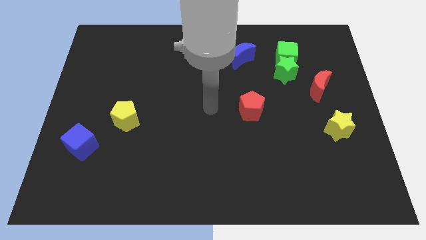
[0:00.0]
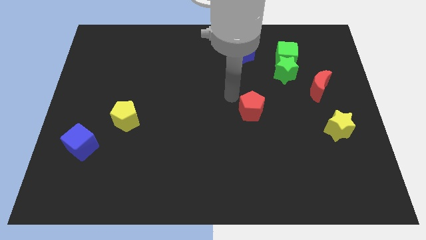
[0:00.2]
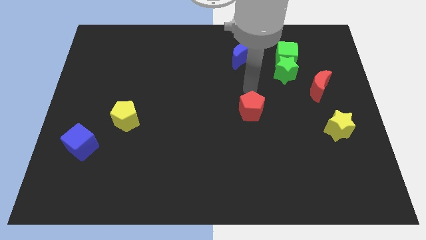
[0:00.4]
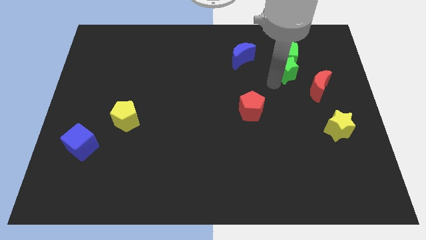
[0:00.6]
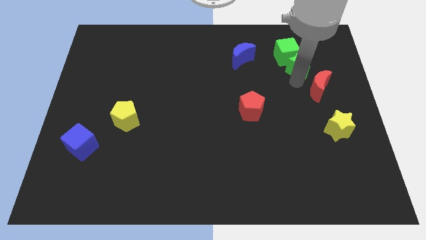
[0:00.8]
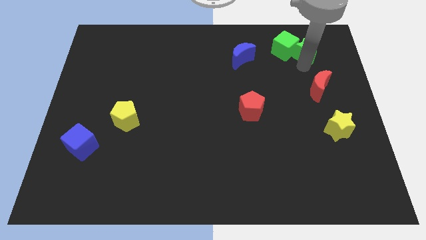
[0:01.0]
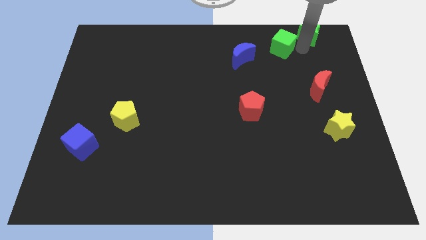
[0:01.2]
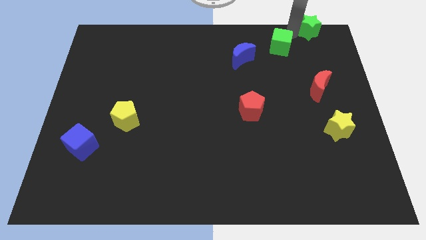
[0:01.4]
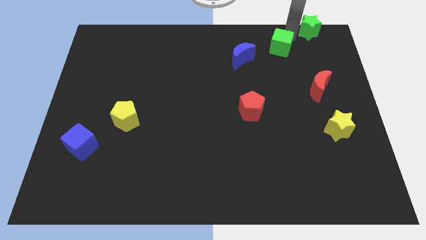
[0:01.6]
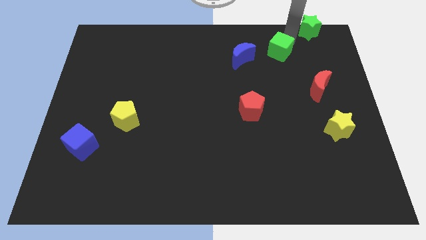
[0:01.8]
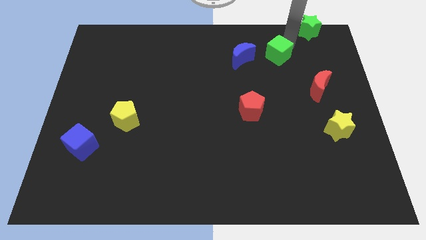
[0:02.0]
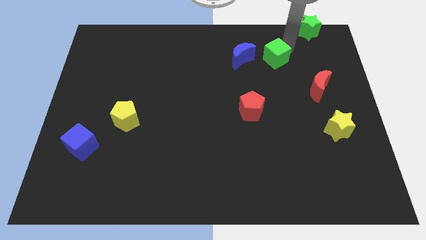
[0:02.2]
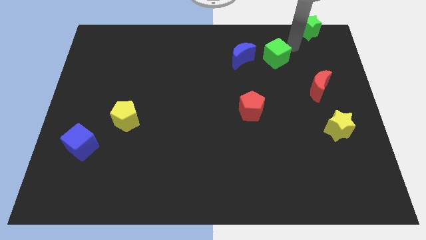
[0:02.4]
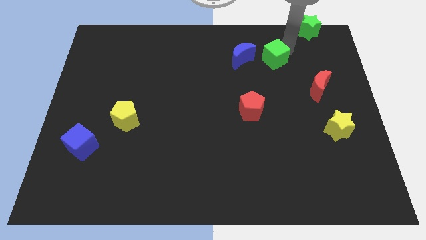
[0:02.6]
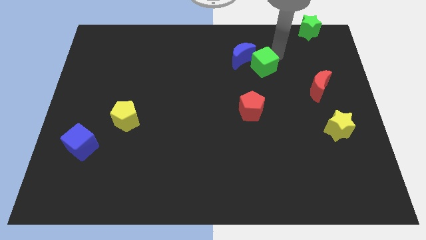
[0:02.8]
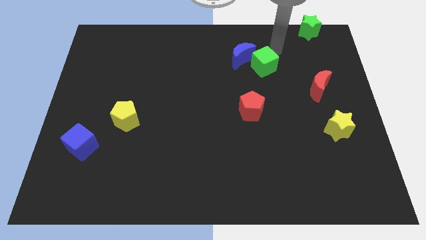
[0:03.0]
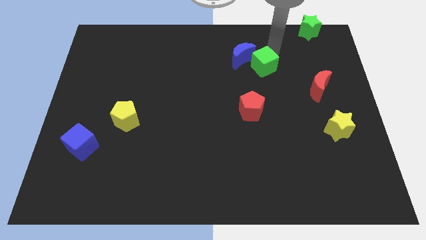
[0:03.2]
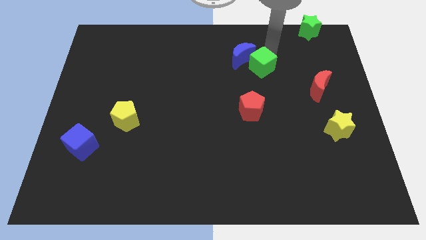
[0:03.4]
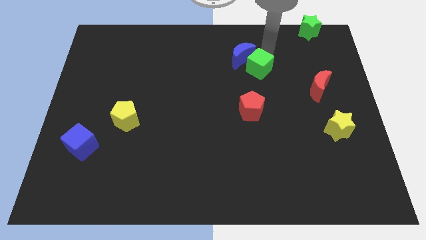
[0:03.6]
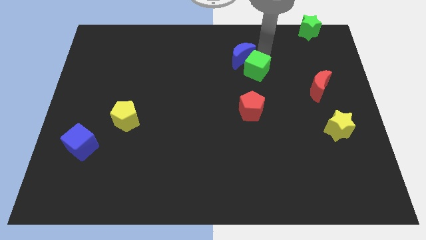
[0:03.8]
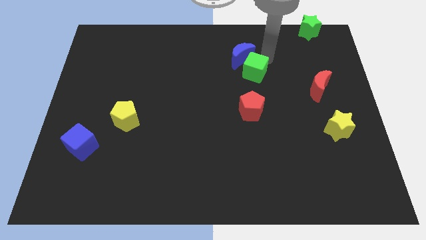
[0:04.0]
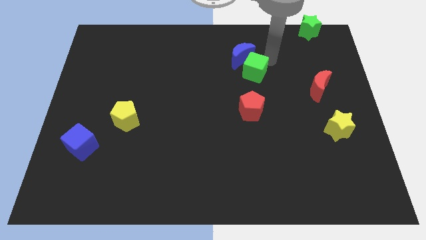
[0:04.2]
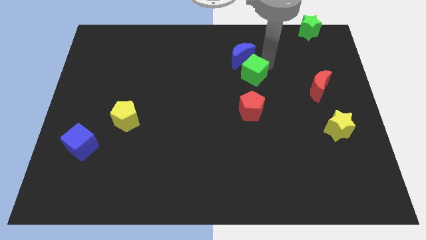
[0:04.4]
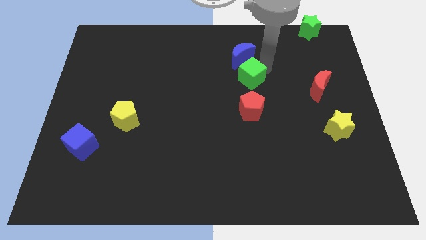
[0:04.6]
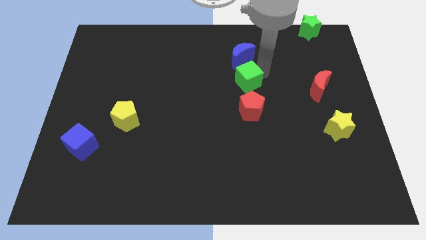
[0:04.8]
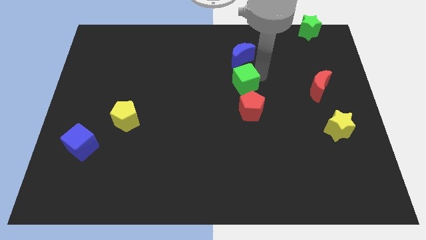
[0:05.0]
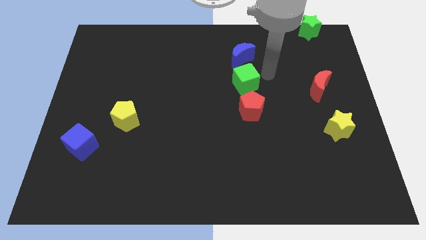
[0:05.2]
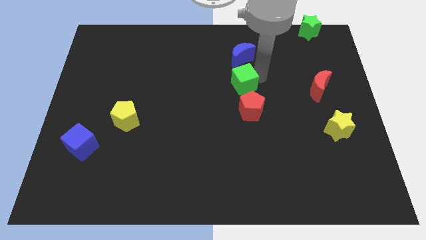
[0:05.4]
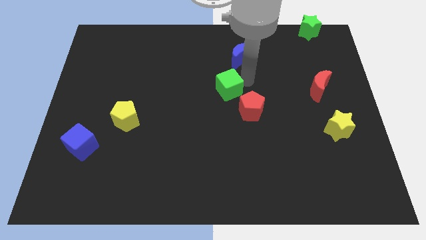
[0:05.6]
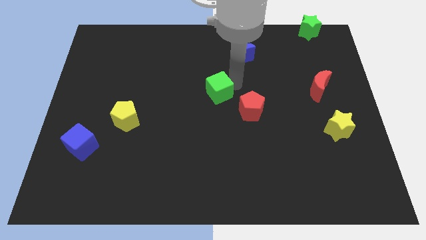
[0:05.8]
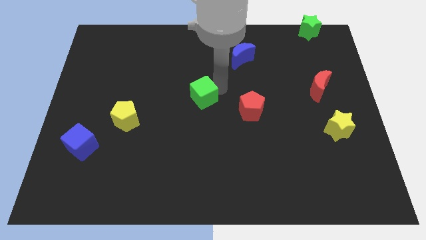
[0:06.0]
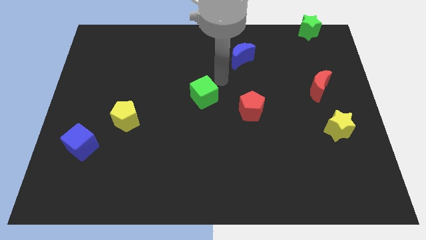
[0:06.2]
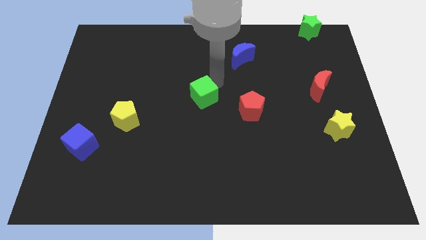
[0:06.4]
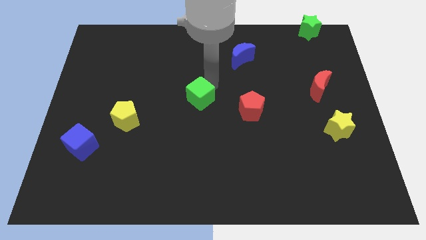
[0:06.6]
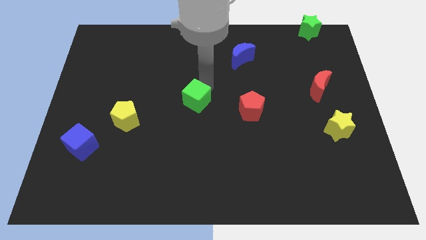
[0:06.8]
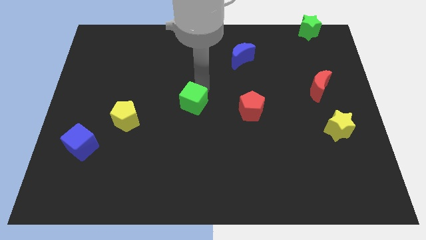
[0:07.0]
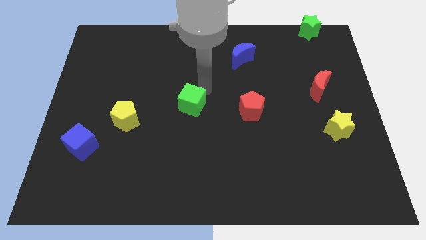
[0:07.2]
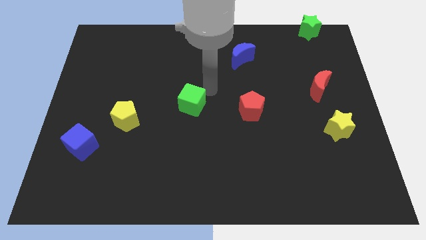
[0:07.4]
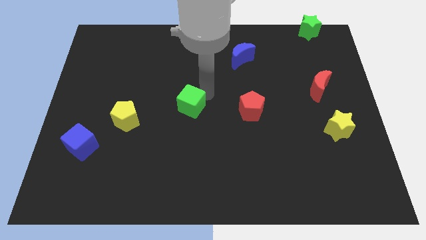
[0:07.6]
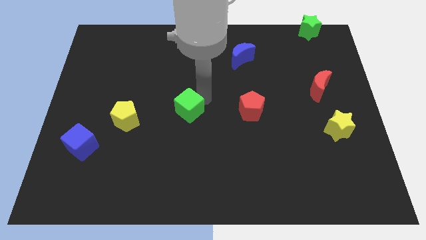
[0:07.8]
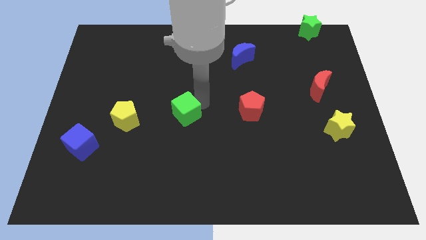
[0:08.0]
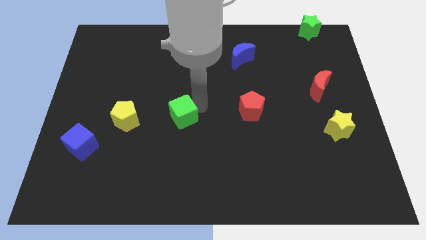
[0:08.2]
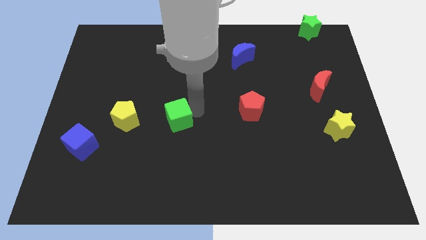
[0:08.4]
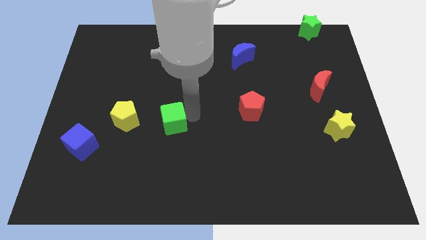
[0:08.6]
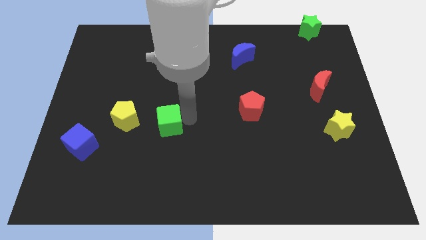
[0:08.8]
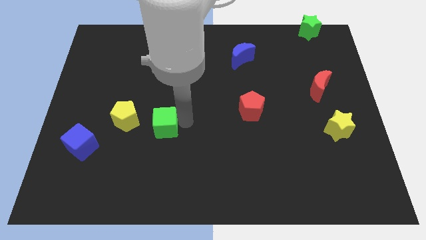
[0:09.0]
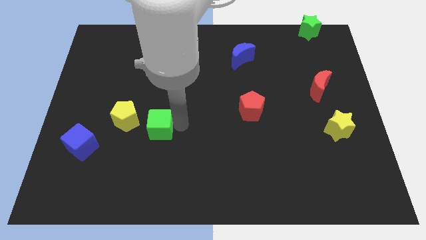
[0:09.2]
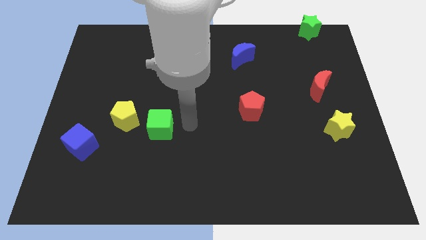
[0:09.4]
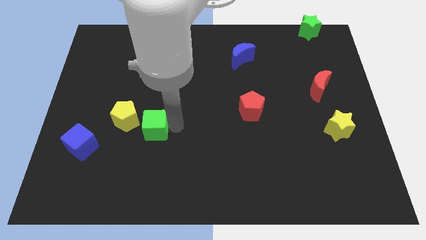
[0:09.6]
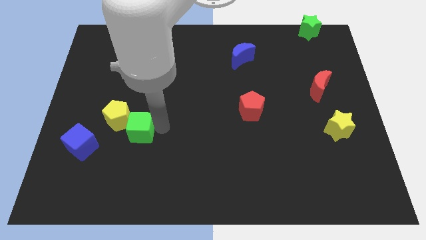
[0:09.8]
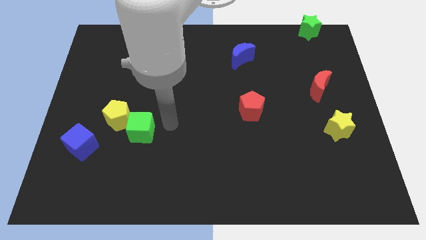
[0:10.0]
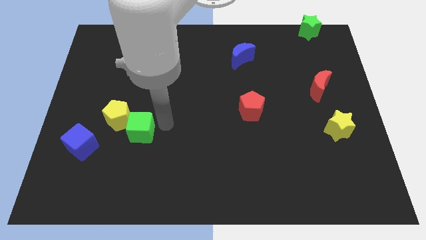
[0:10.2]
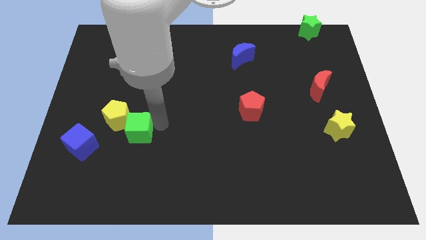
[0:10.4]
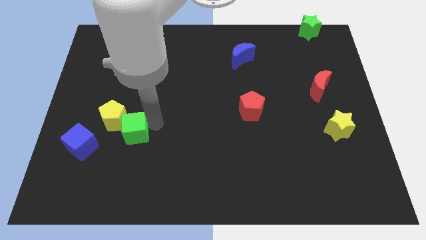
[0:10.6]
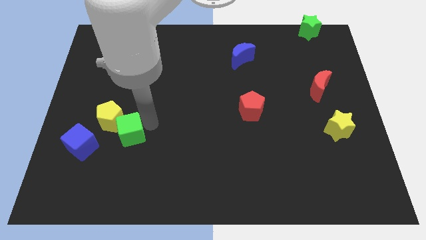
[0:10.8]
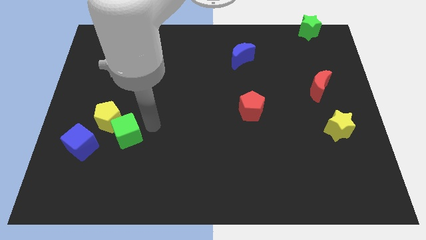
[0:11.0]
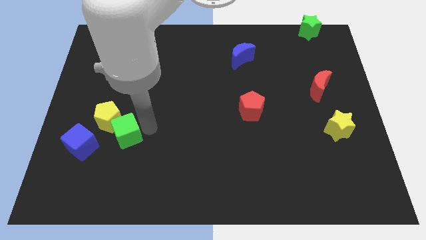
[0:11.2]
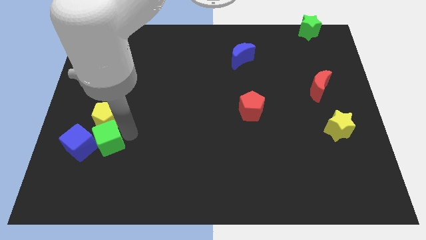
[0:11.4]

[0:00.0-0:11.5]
push the green cube towards the blue cube

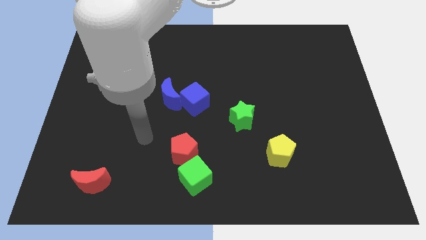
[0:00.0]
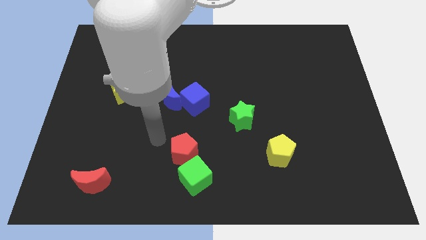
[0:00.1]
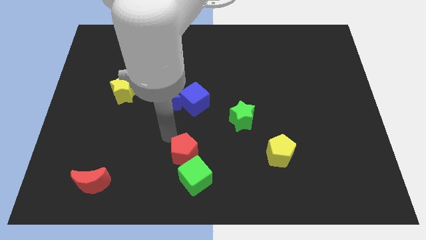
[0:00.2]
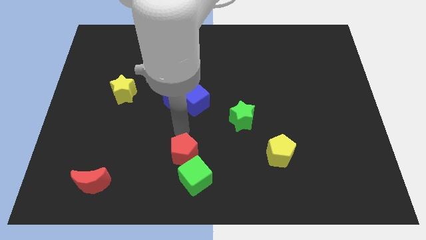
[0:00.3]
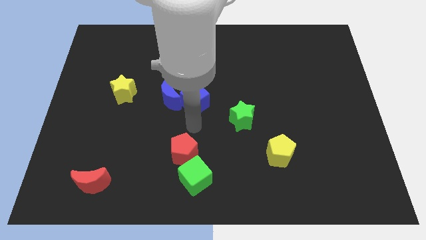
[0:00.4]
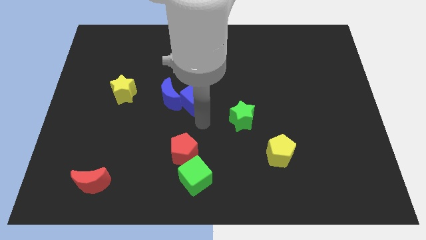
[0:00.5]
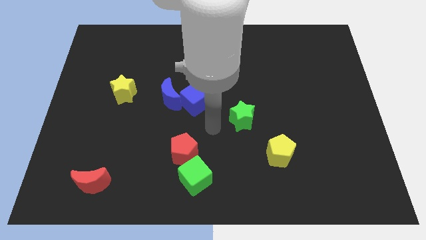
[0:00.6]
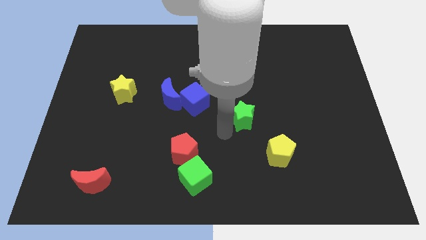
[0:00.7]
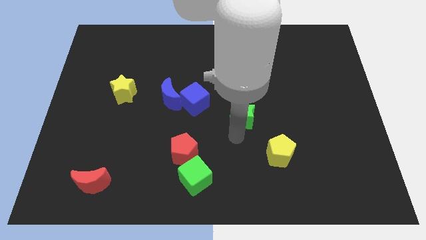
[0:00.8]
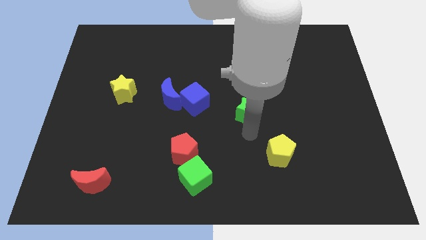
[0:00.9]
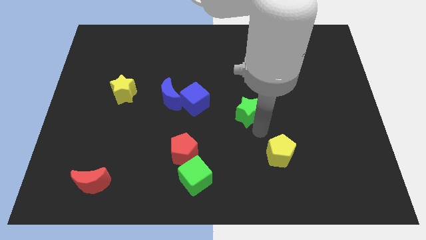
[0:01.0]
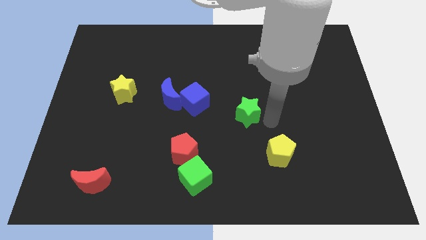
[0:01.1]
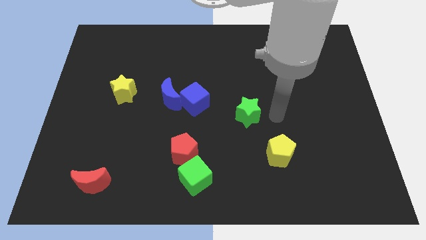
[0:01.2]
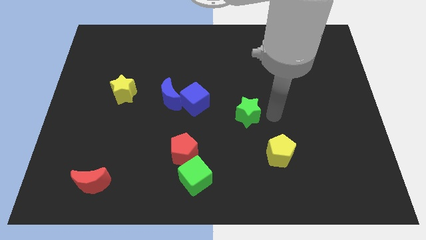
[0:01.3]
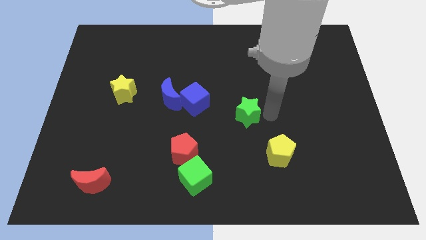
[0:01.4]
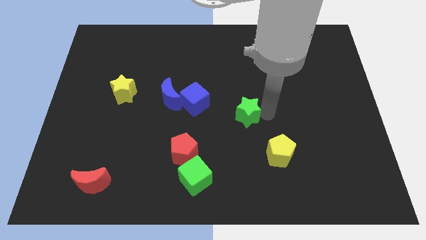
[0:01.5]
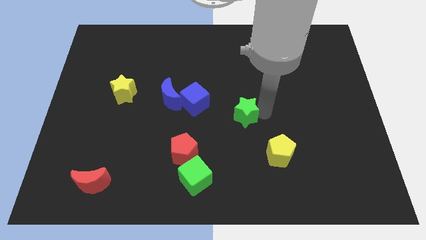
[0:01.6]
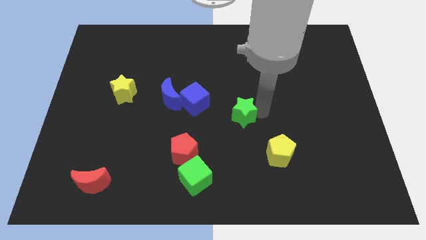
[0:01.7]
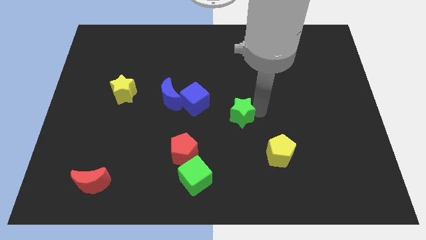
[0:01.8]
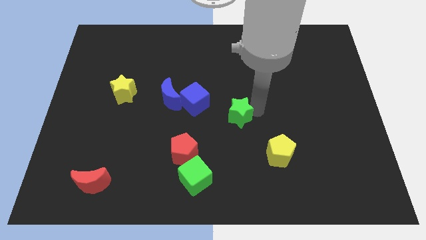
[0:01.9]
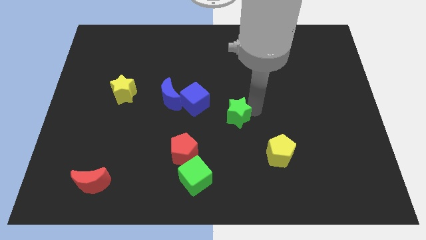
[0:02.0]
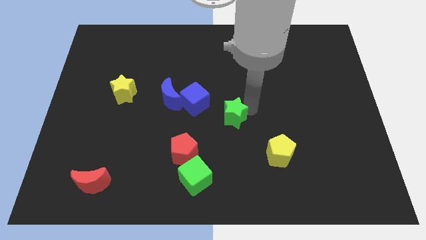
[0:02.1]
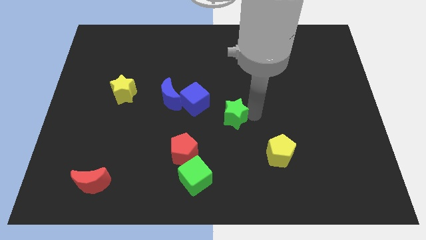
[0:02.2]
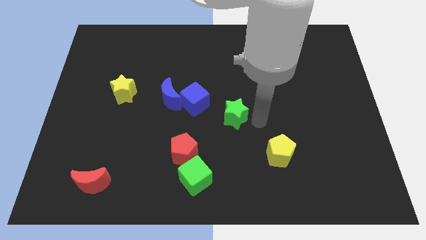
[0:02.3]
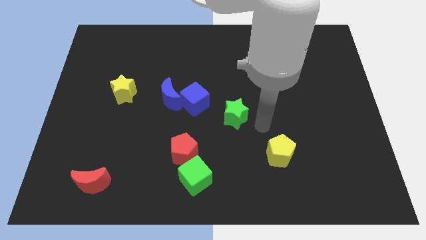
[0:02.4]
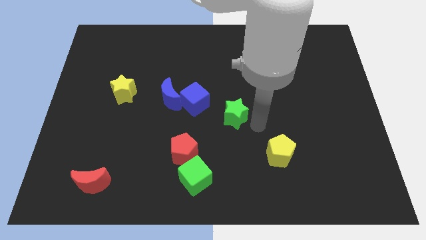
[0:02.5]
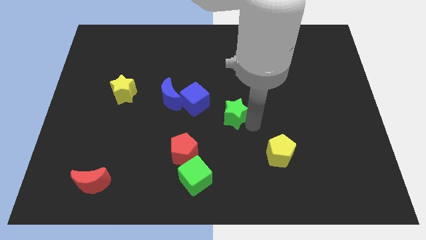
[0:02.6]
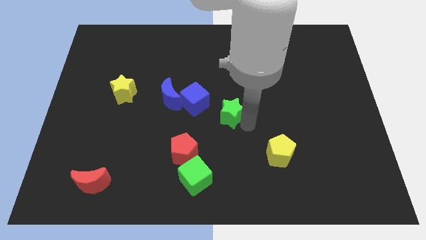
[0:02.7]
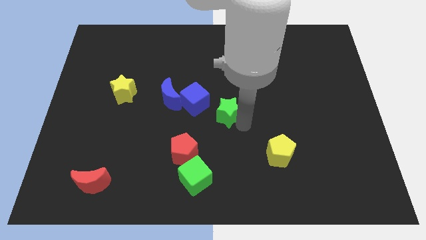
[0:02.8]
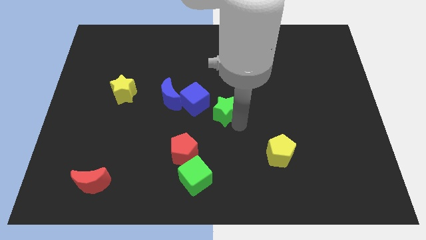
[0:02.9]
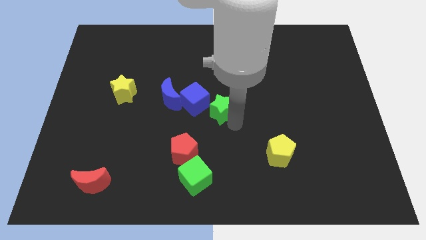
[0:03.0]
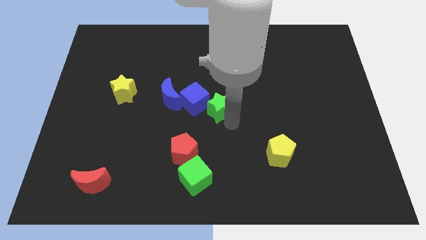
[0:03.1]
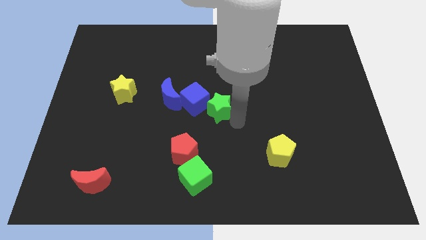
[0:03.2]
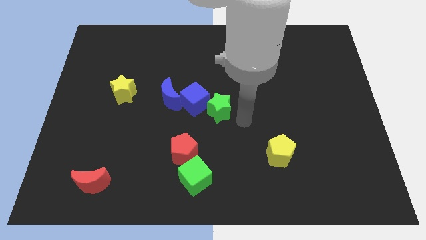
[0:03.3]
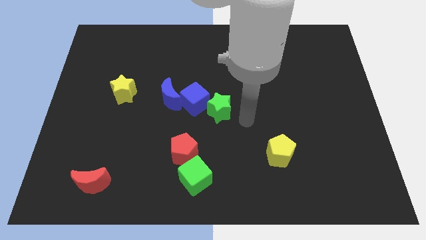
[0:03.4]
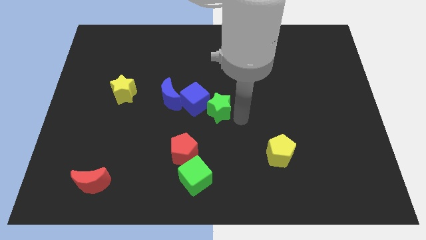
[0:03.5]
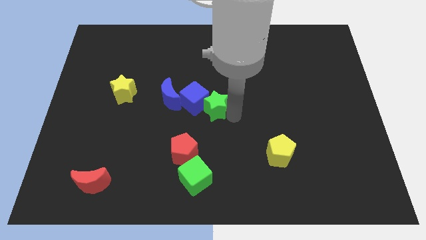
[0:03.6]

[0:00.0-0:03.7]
push the green star close to the blue cube
